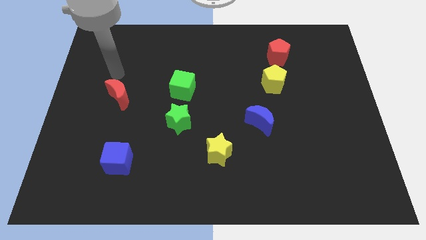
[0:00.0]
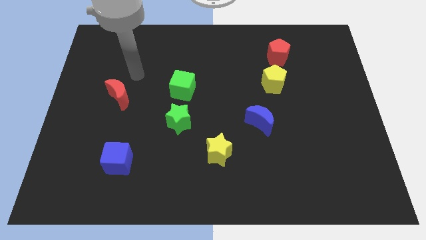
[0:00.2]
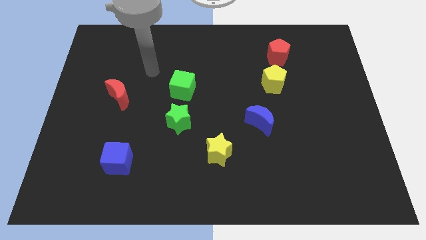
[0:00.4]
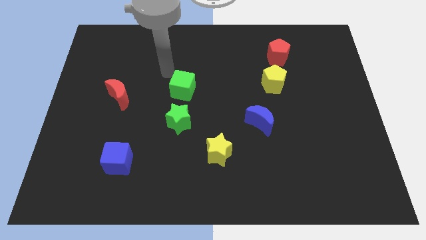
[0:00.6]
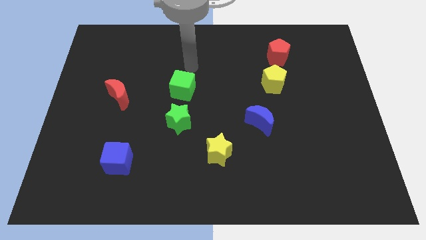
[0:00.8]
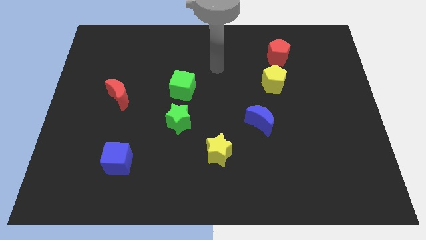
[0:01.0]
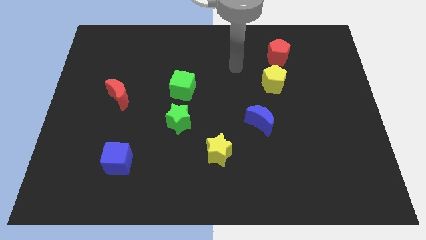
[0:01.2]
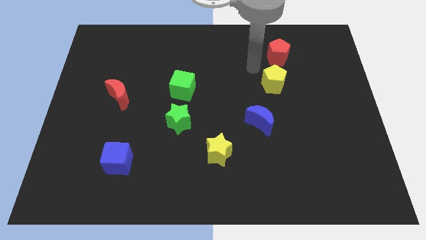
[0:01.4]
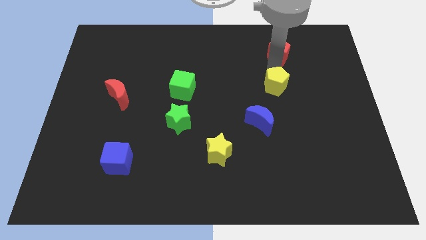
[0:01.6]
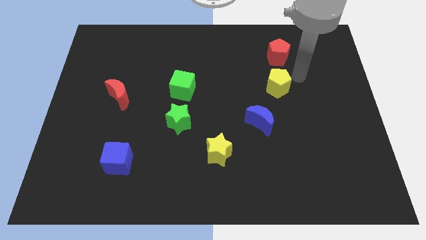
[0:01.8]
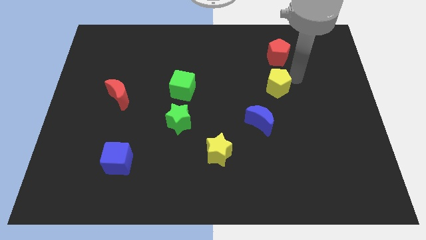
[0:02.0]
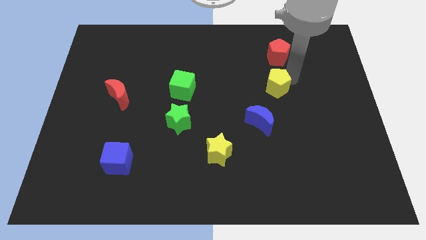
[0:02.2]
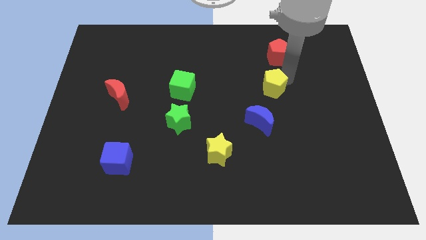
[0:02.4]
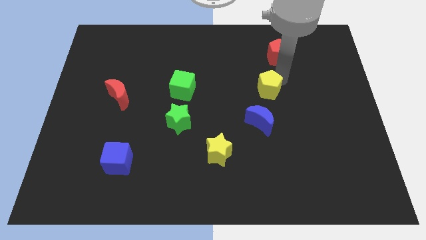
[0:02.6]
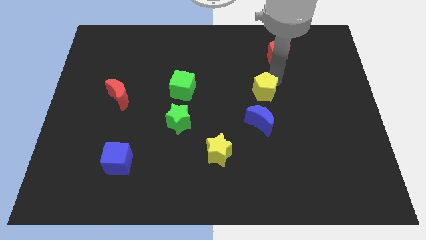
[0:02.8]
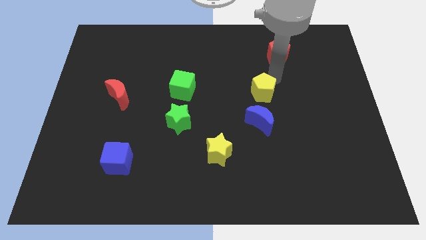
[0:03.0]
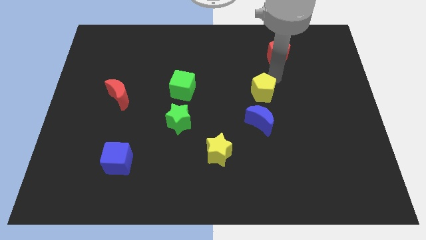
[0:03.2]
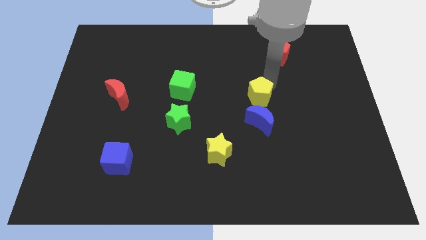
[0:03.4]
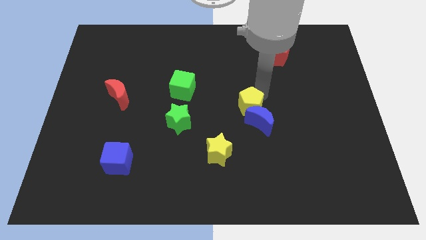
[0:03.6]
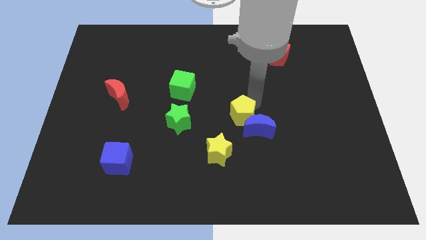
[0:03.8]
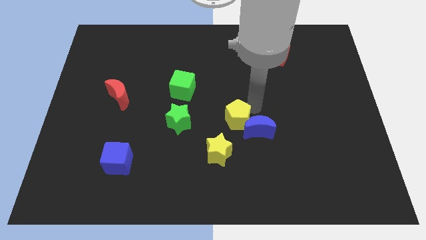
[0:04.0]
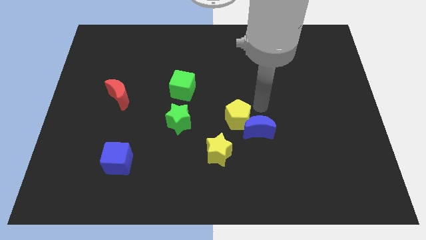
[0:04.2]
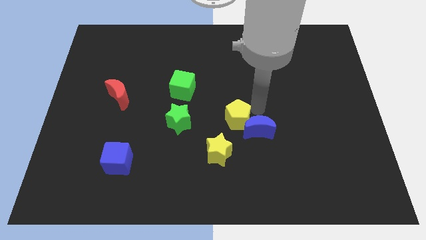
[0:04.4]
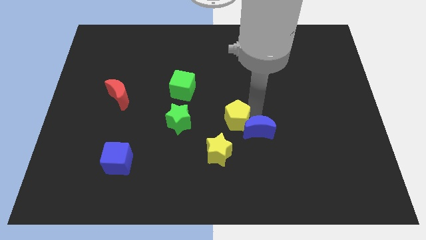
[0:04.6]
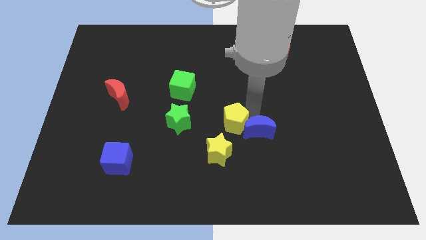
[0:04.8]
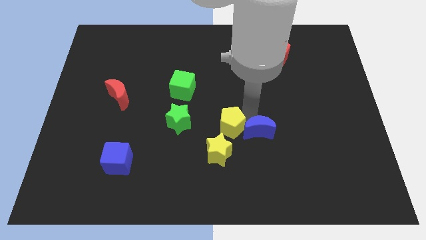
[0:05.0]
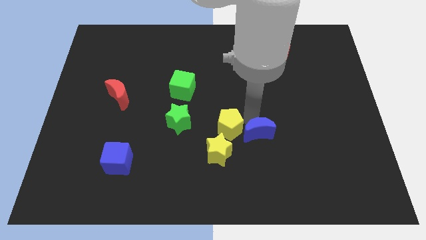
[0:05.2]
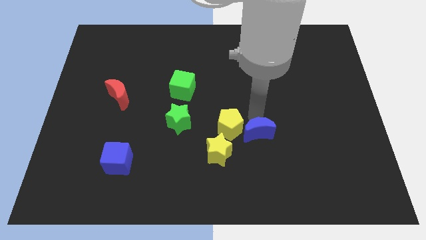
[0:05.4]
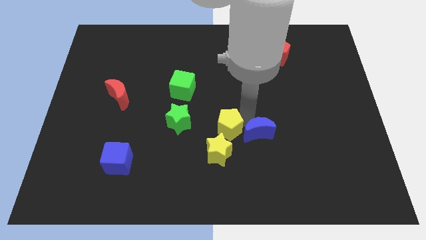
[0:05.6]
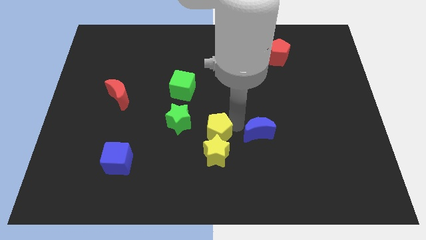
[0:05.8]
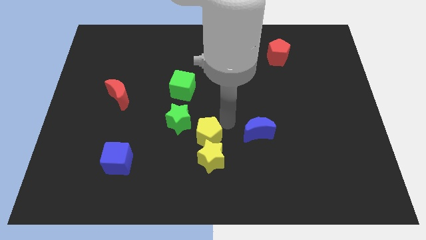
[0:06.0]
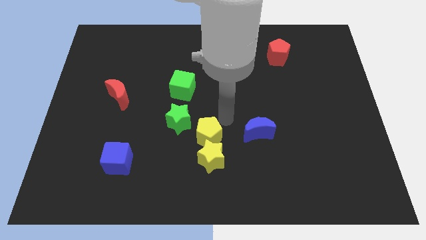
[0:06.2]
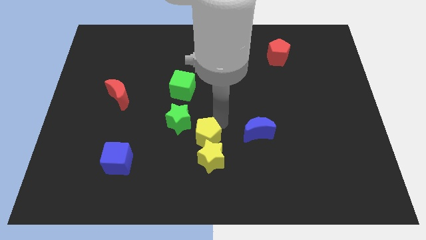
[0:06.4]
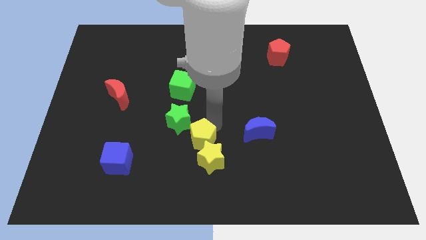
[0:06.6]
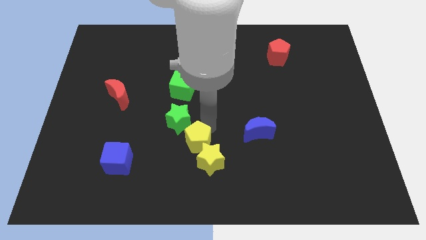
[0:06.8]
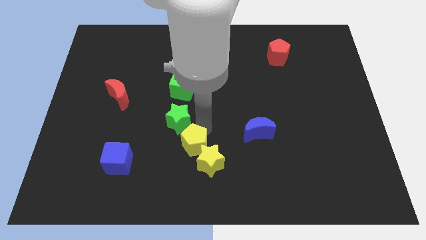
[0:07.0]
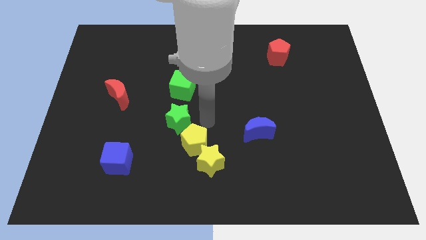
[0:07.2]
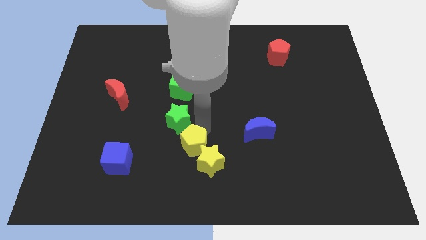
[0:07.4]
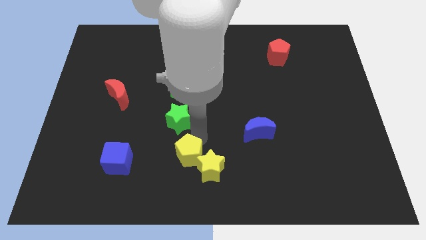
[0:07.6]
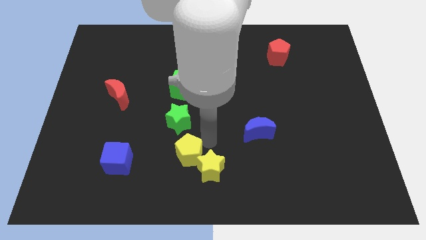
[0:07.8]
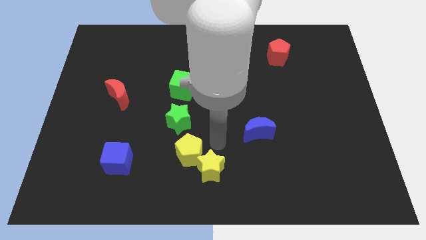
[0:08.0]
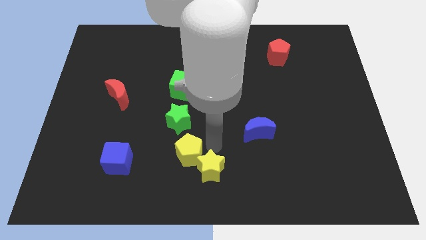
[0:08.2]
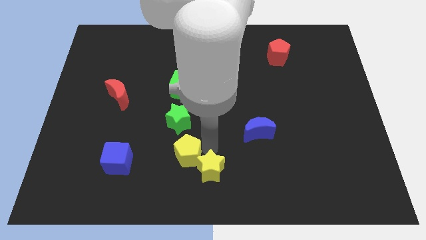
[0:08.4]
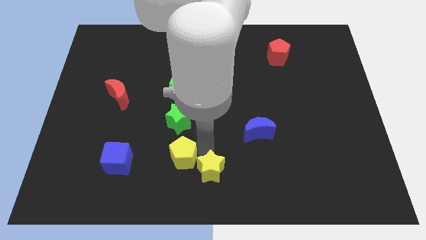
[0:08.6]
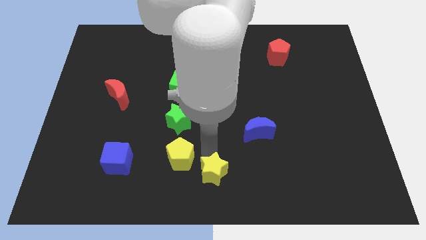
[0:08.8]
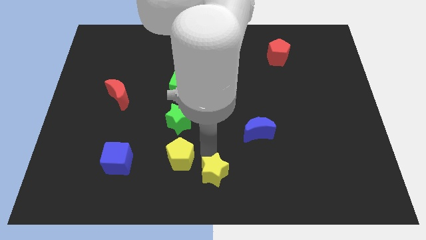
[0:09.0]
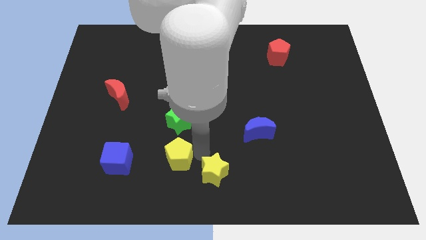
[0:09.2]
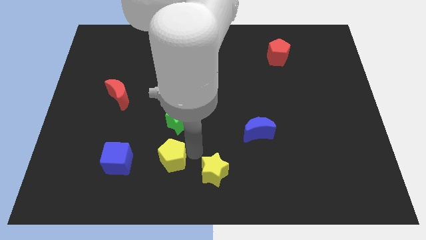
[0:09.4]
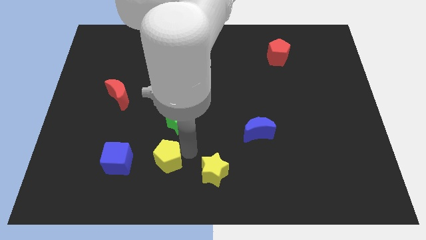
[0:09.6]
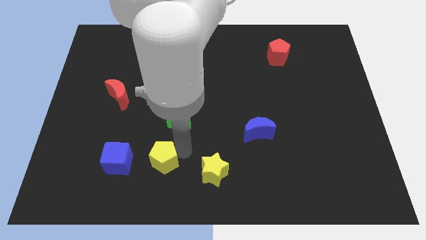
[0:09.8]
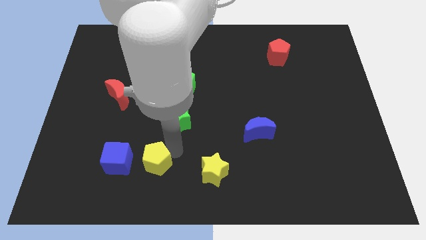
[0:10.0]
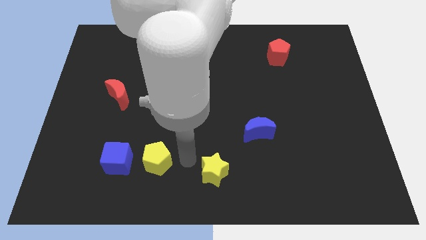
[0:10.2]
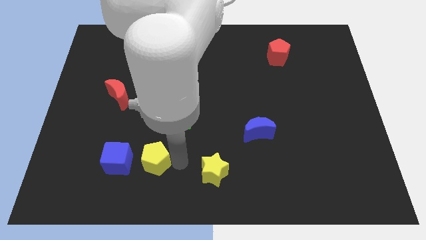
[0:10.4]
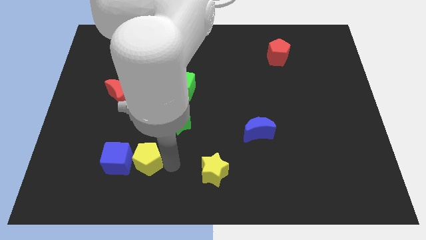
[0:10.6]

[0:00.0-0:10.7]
push the yellow pentagon close to the blue cube

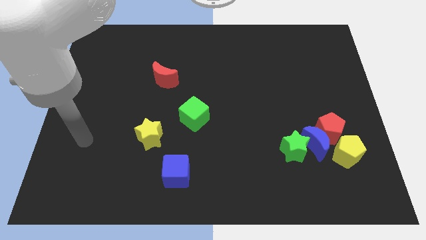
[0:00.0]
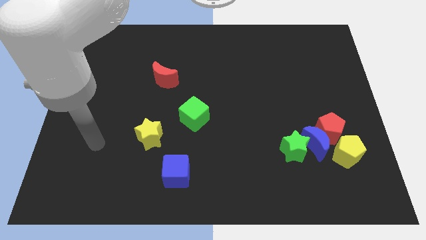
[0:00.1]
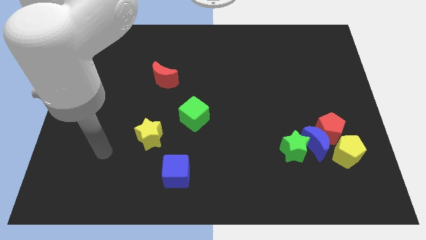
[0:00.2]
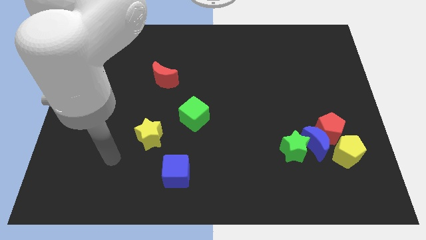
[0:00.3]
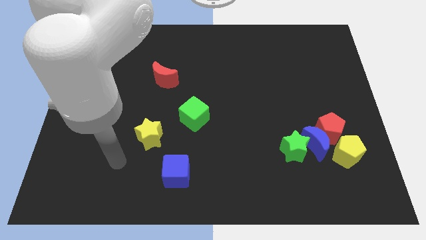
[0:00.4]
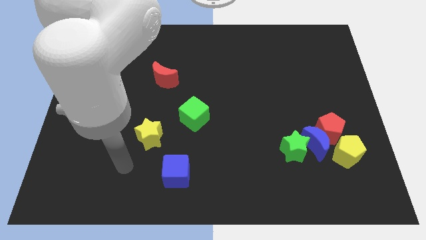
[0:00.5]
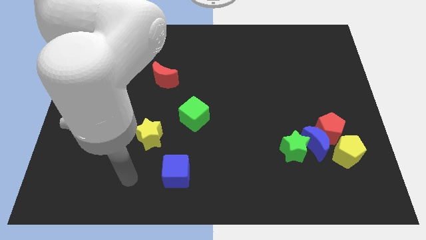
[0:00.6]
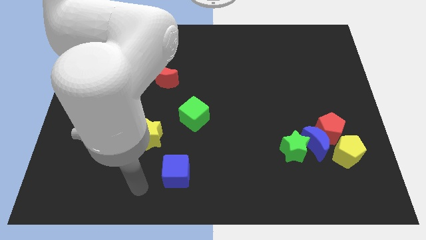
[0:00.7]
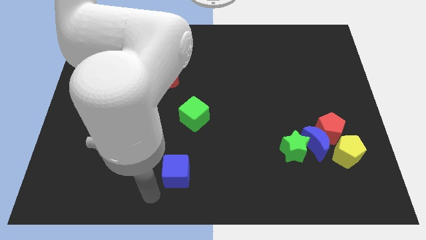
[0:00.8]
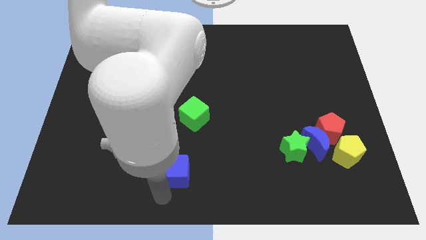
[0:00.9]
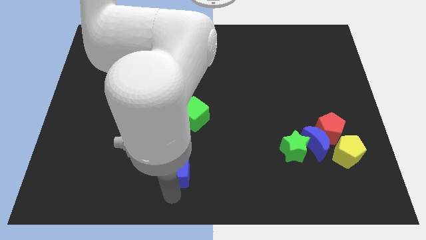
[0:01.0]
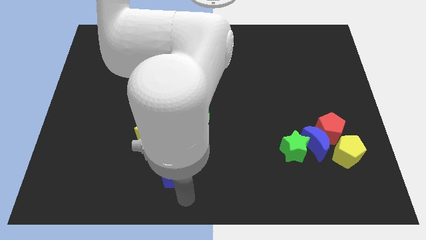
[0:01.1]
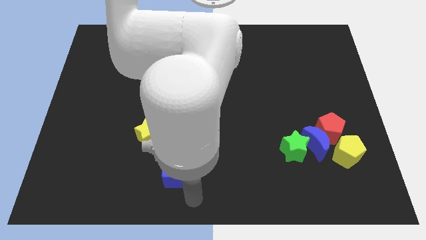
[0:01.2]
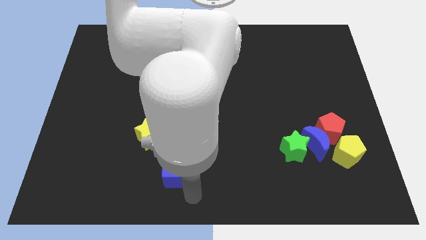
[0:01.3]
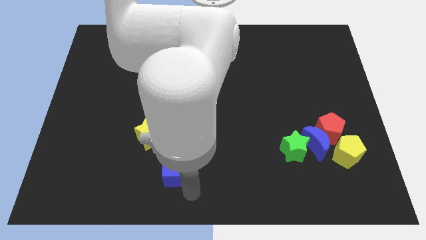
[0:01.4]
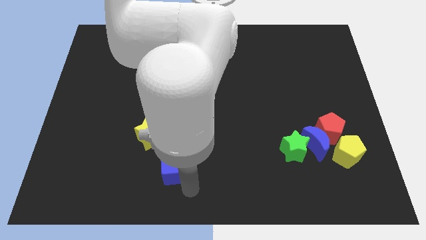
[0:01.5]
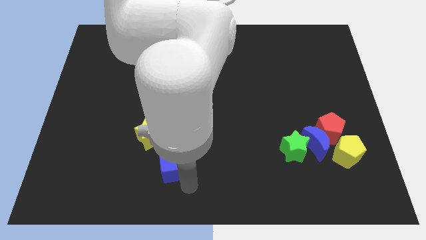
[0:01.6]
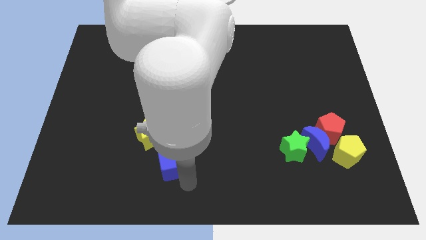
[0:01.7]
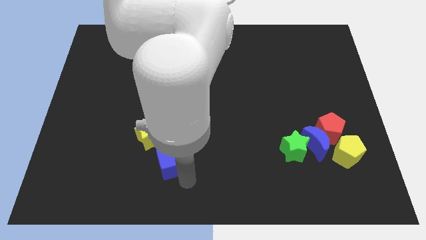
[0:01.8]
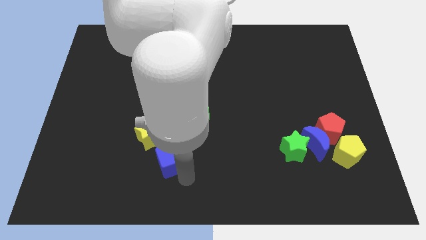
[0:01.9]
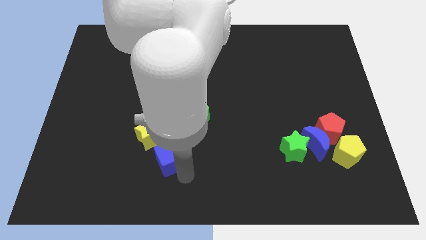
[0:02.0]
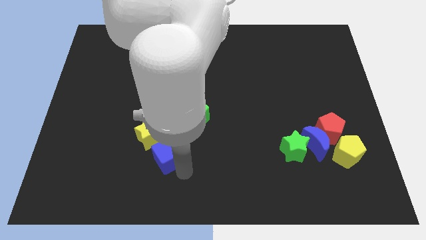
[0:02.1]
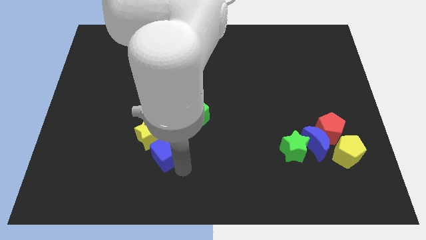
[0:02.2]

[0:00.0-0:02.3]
move the blue cube towards the yellow star
